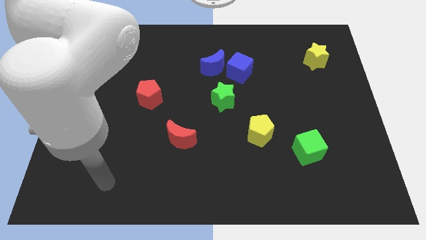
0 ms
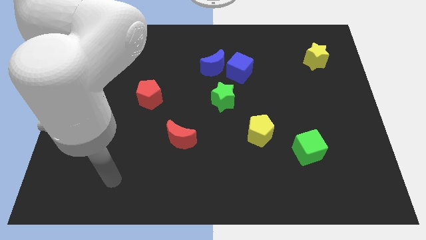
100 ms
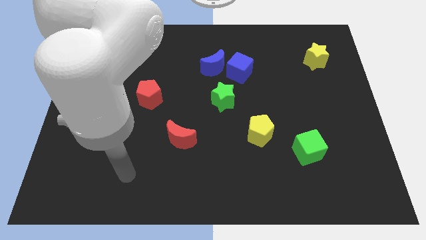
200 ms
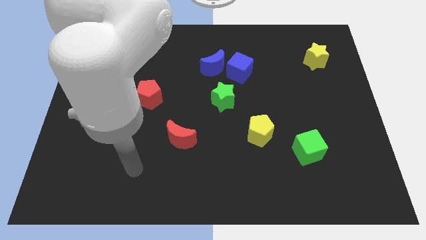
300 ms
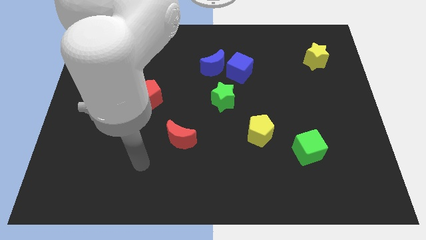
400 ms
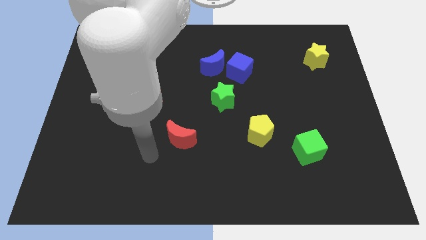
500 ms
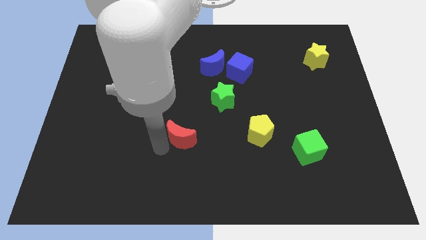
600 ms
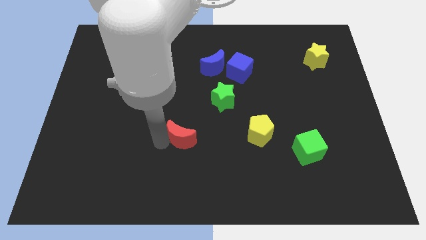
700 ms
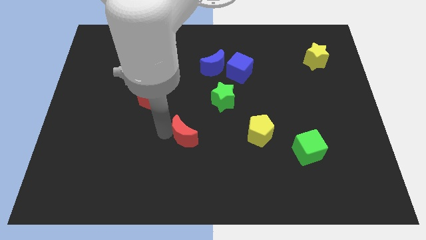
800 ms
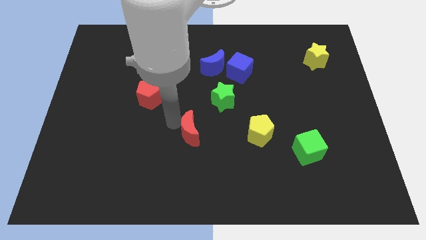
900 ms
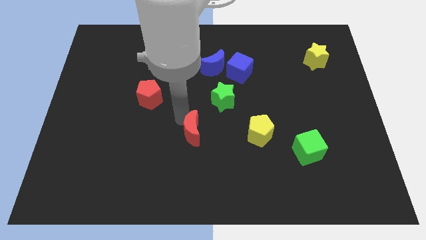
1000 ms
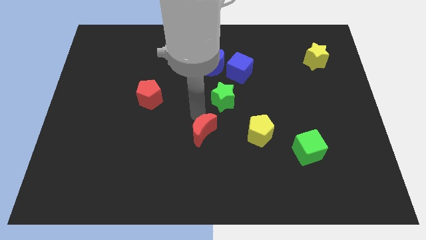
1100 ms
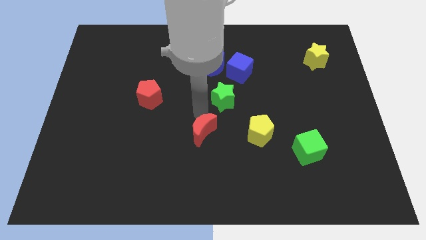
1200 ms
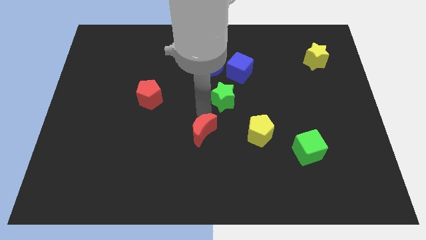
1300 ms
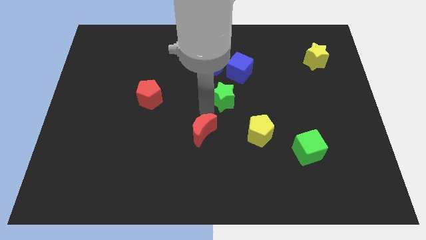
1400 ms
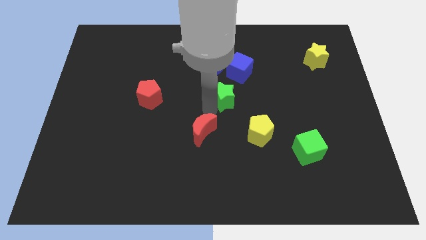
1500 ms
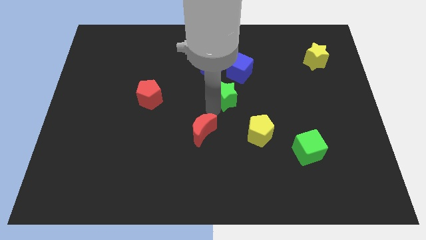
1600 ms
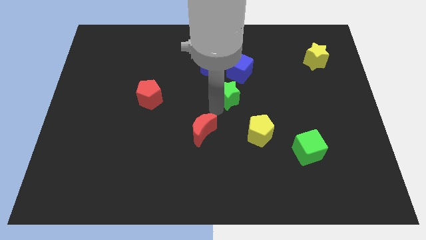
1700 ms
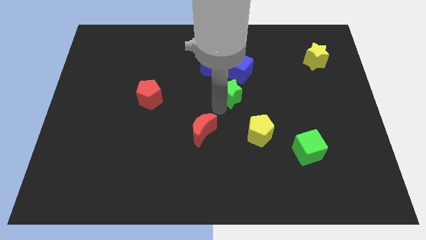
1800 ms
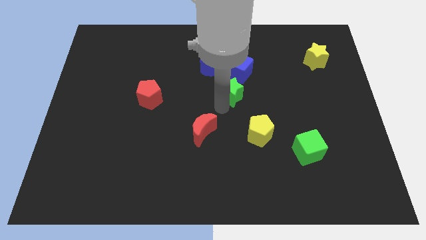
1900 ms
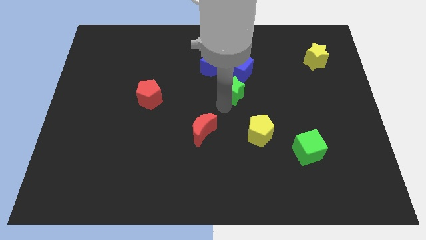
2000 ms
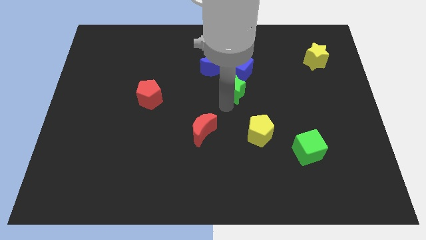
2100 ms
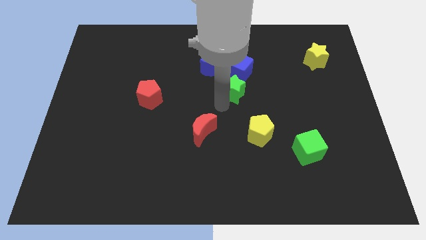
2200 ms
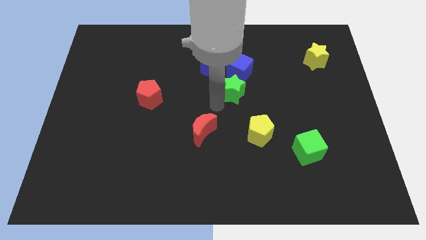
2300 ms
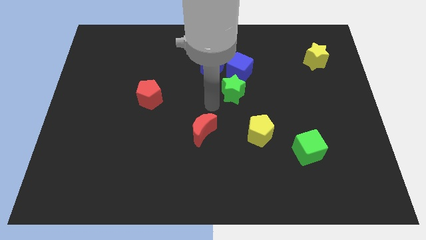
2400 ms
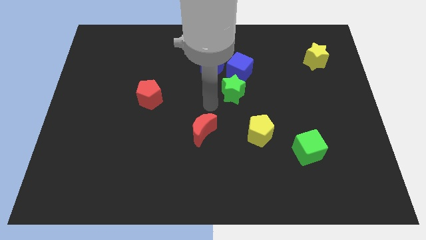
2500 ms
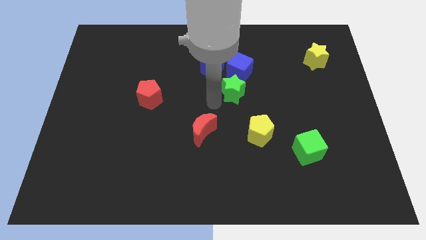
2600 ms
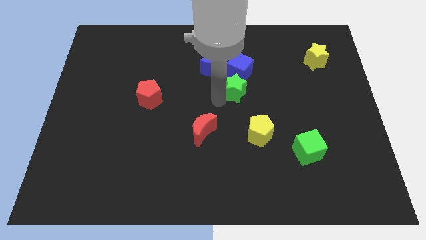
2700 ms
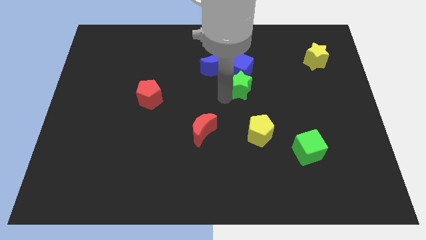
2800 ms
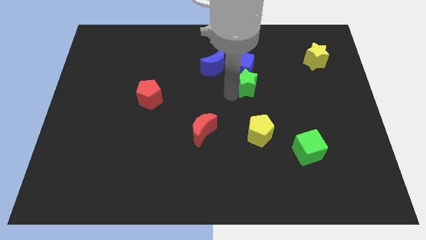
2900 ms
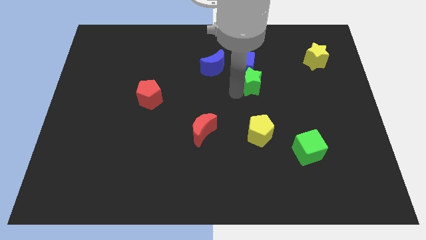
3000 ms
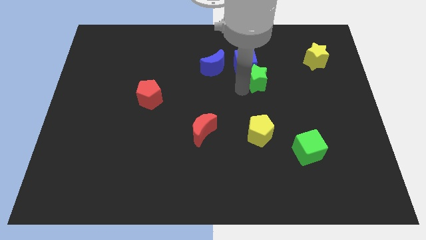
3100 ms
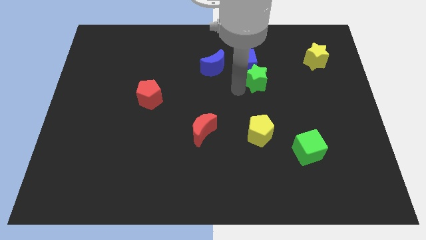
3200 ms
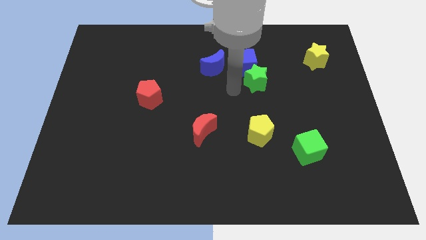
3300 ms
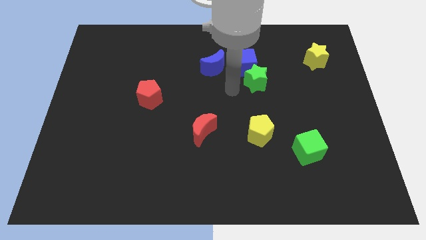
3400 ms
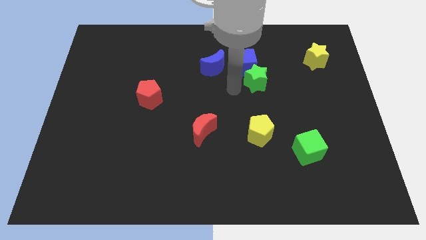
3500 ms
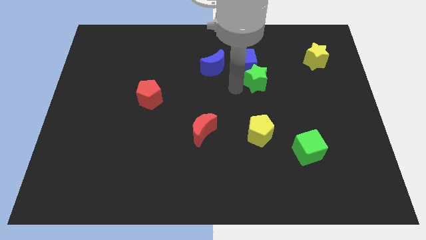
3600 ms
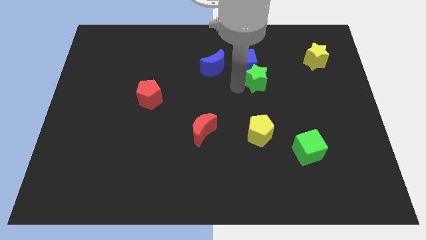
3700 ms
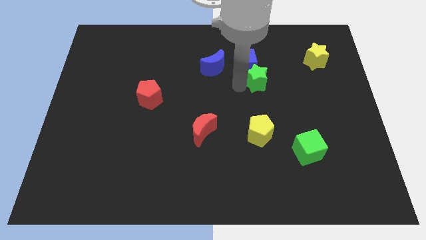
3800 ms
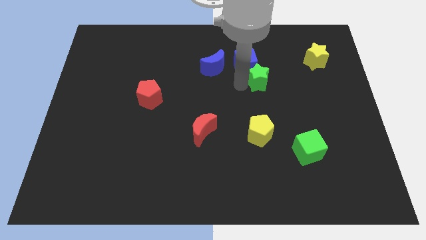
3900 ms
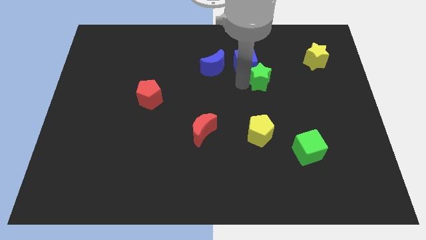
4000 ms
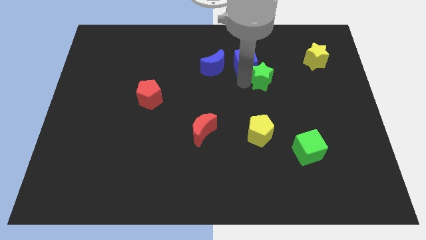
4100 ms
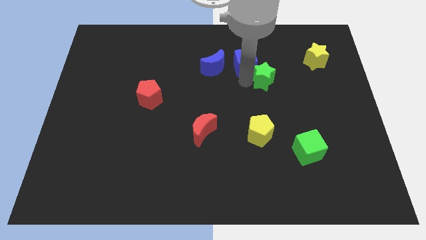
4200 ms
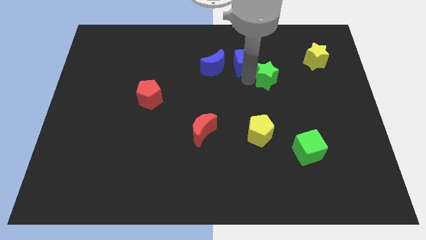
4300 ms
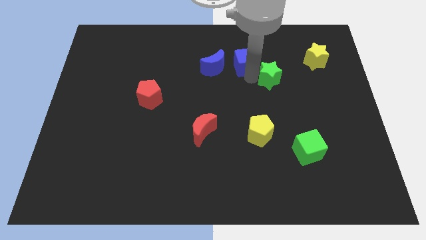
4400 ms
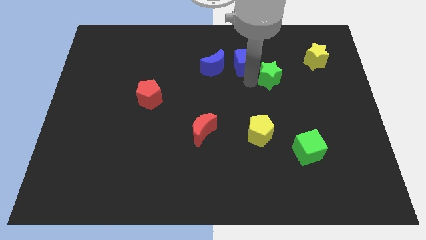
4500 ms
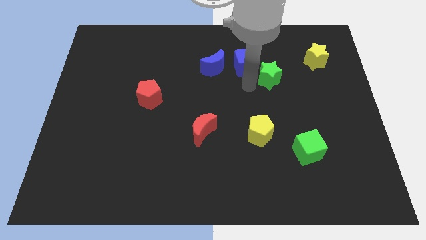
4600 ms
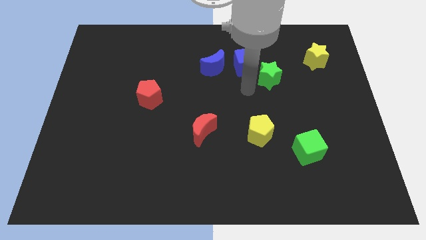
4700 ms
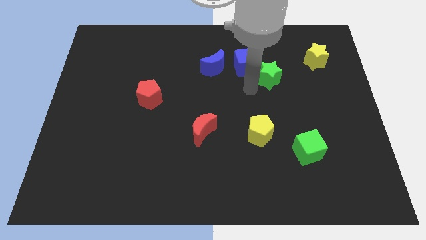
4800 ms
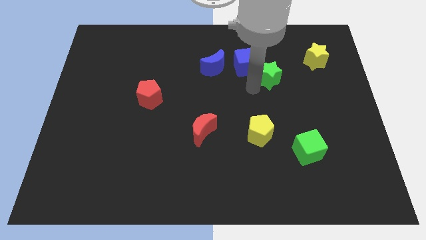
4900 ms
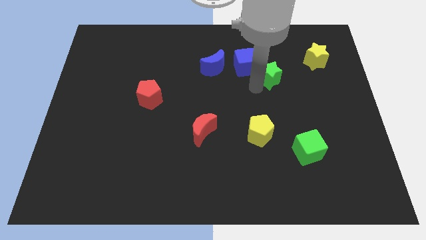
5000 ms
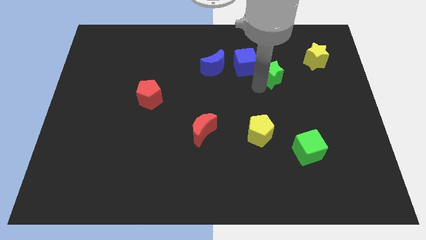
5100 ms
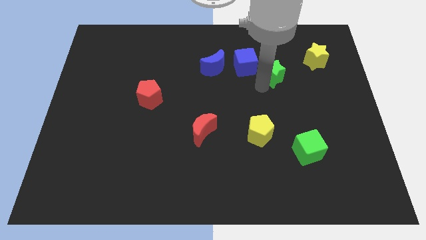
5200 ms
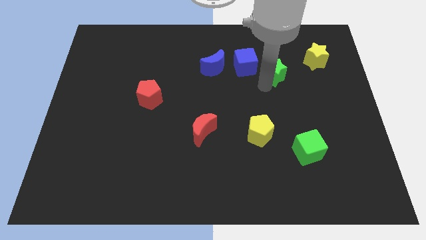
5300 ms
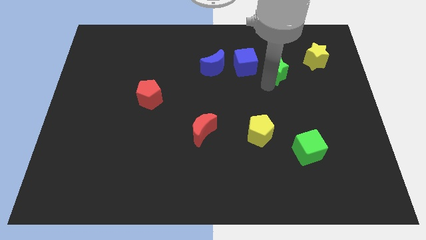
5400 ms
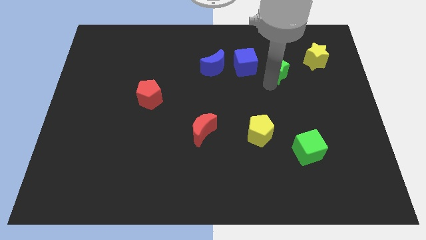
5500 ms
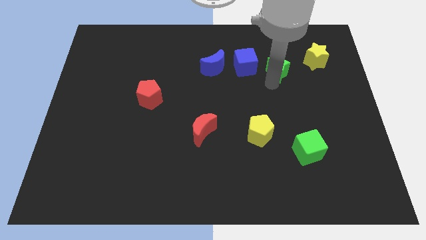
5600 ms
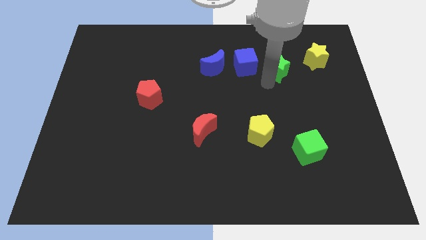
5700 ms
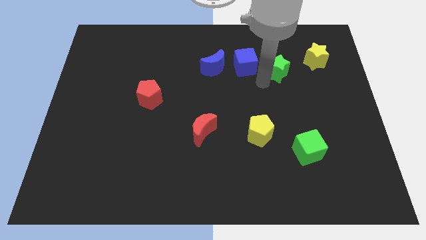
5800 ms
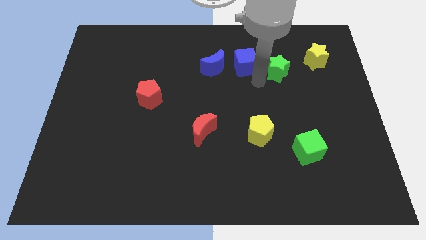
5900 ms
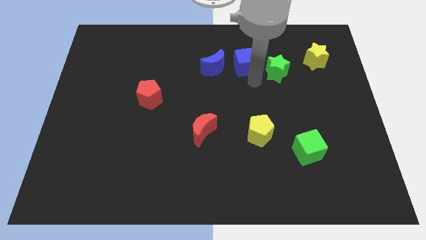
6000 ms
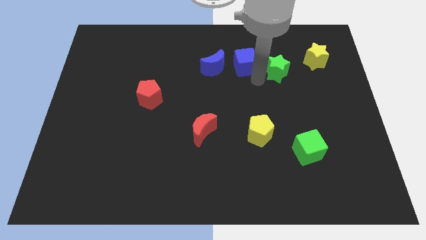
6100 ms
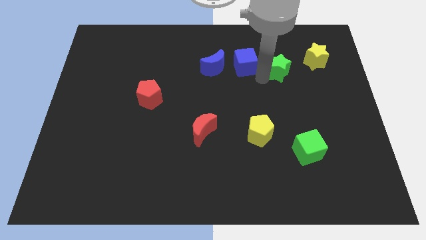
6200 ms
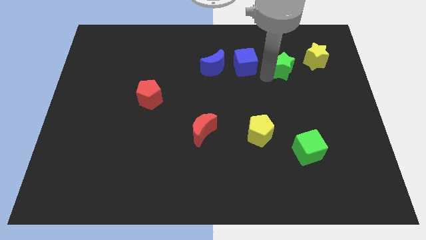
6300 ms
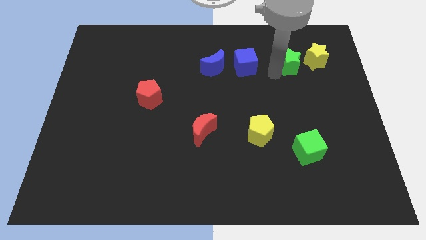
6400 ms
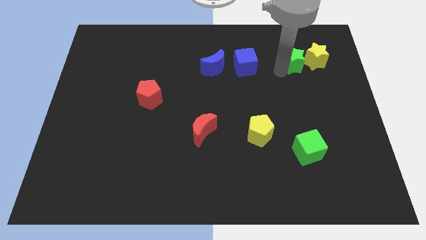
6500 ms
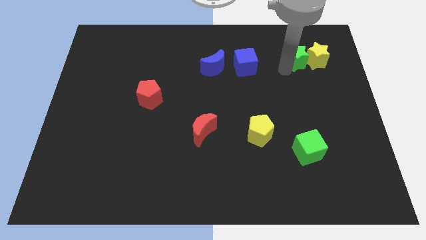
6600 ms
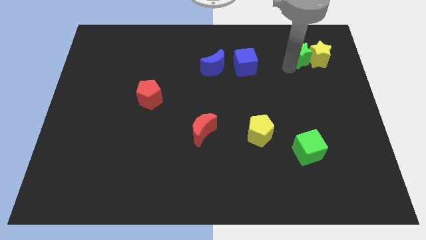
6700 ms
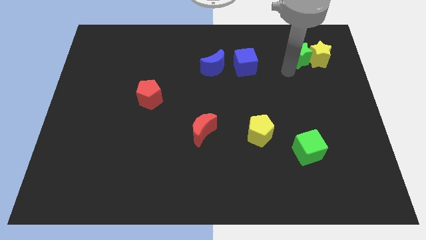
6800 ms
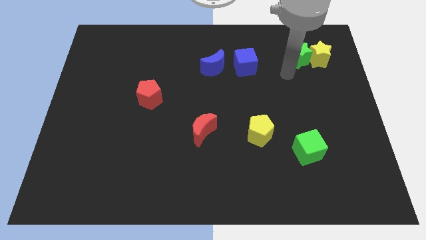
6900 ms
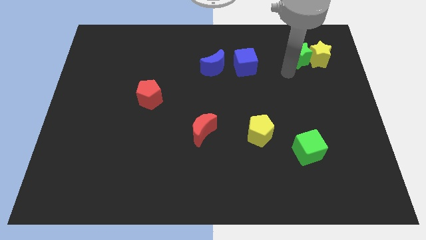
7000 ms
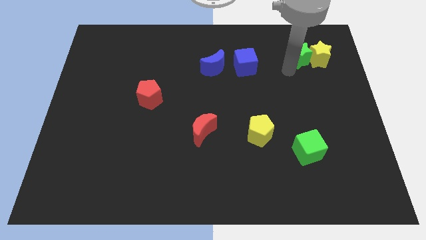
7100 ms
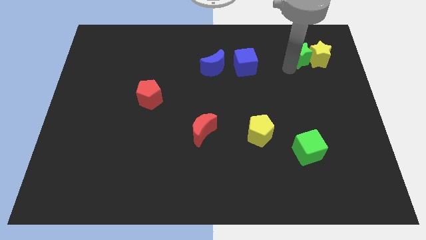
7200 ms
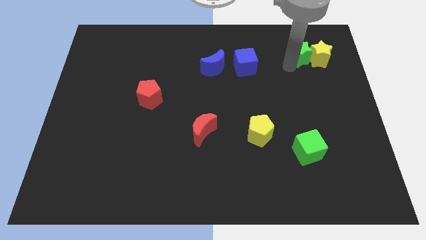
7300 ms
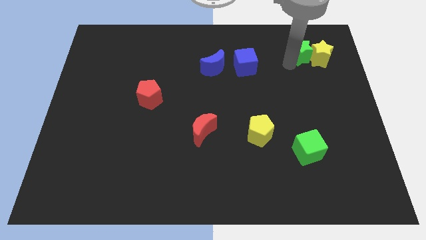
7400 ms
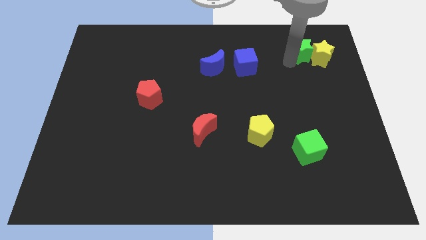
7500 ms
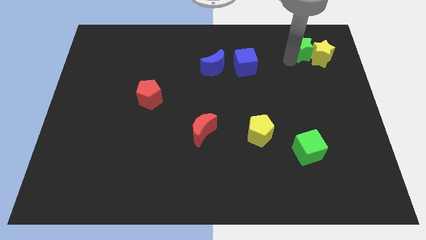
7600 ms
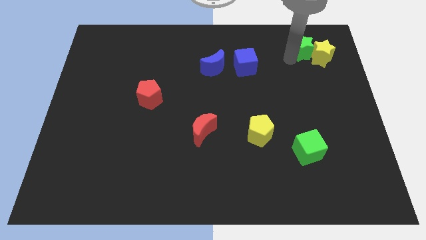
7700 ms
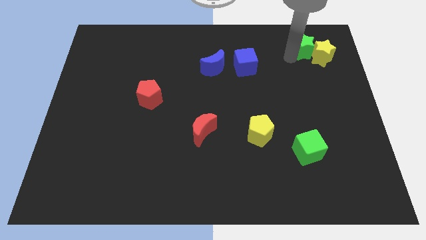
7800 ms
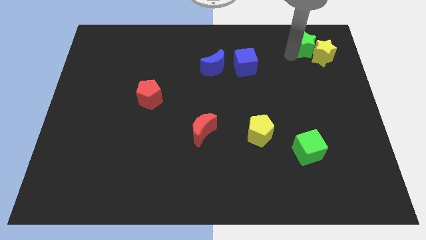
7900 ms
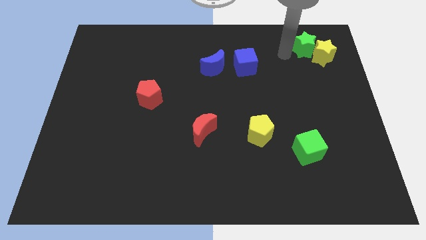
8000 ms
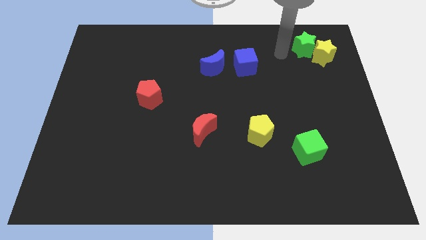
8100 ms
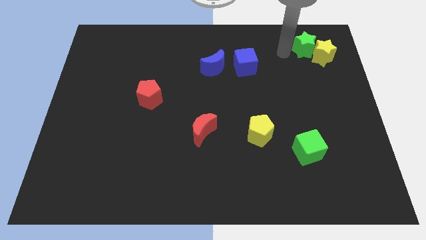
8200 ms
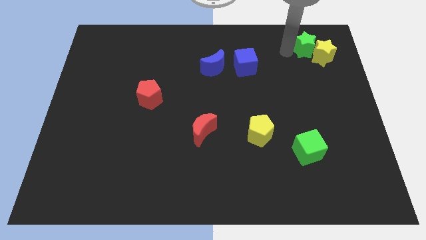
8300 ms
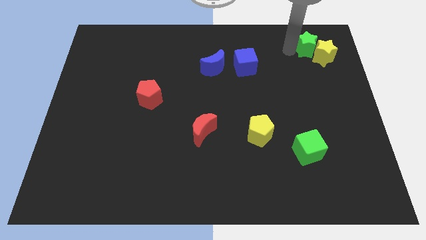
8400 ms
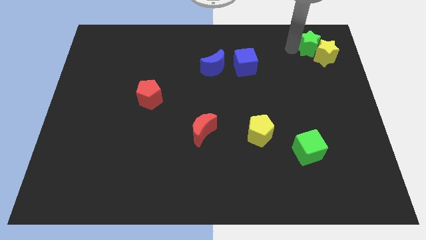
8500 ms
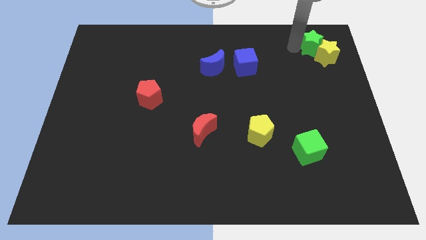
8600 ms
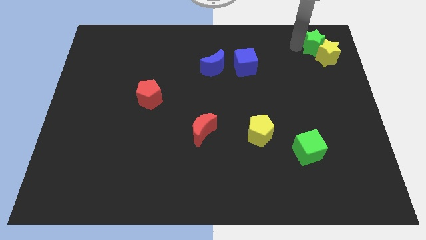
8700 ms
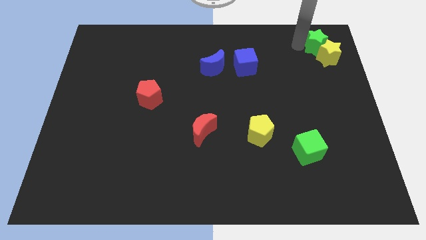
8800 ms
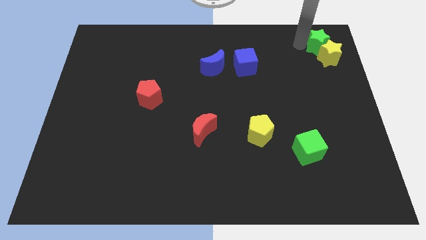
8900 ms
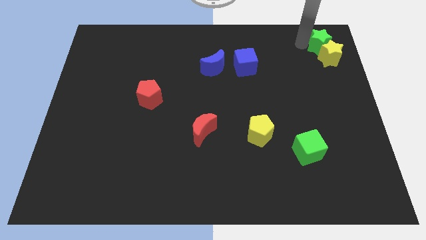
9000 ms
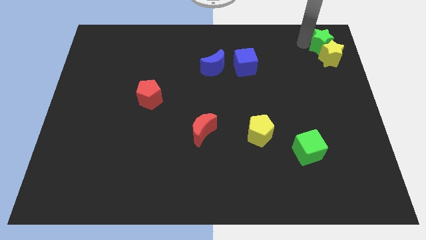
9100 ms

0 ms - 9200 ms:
put the green star to the upper right corner
